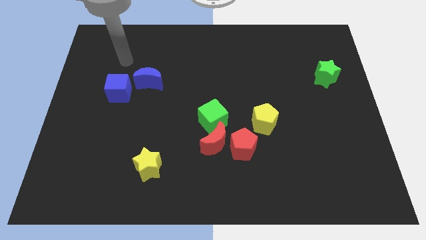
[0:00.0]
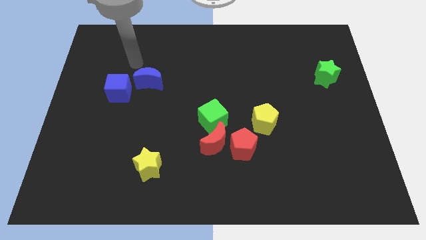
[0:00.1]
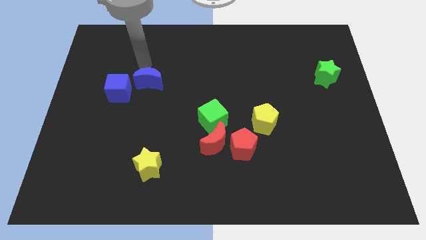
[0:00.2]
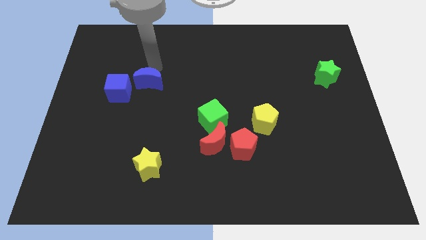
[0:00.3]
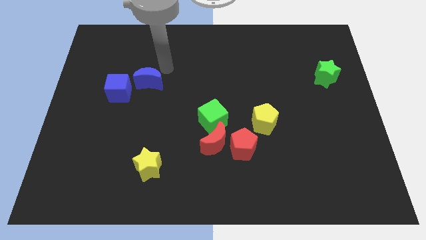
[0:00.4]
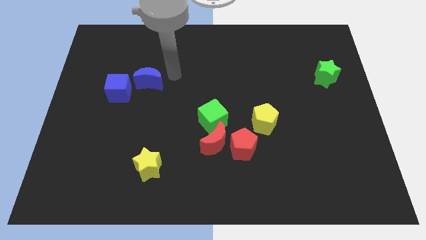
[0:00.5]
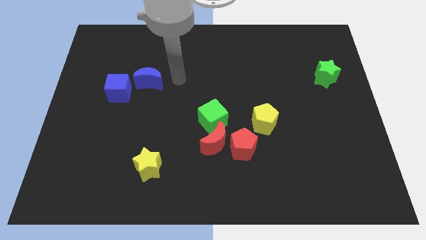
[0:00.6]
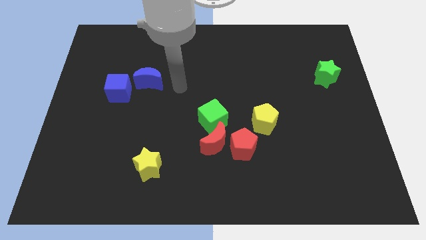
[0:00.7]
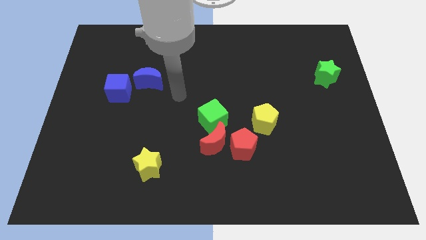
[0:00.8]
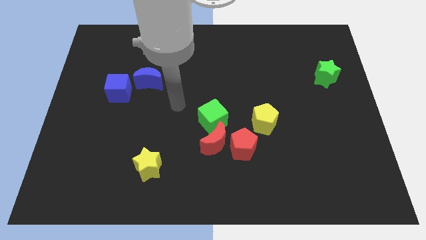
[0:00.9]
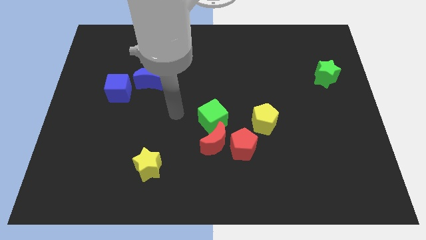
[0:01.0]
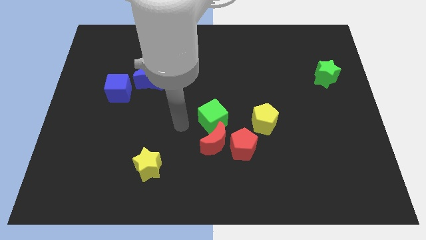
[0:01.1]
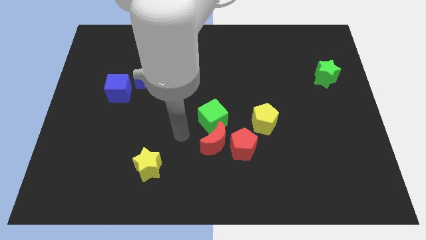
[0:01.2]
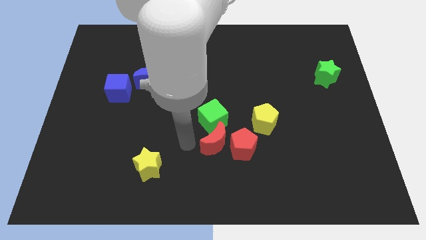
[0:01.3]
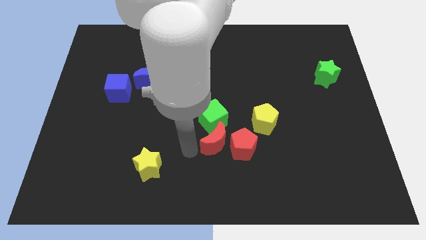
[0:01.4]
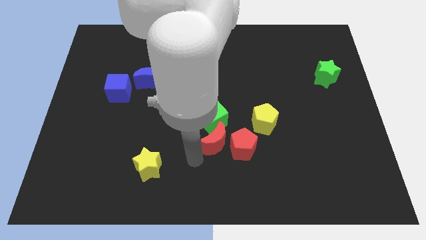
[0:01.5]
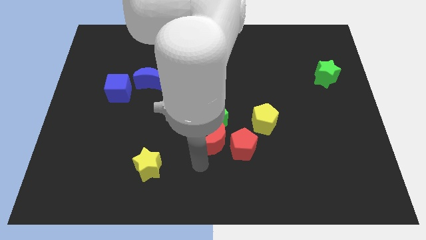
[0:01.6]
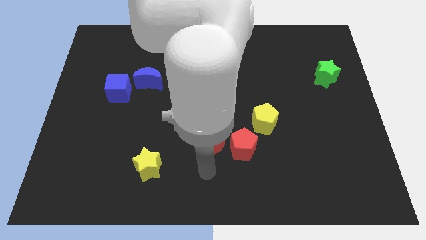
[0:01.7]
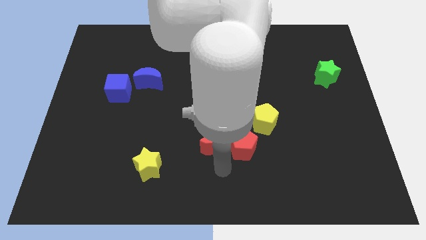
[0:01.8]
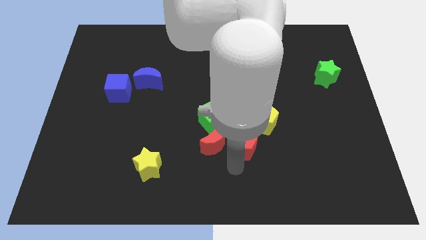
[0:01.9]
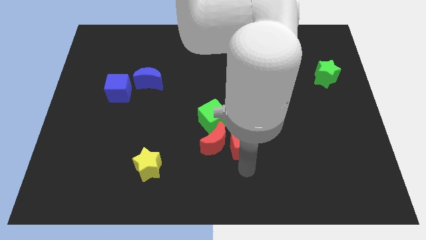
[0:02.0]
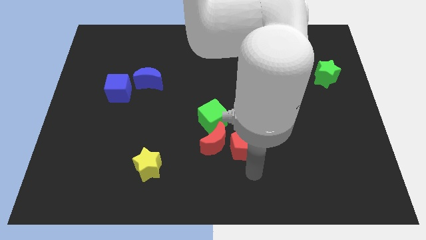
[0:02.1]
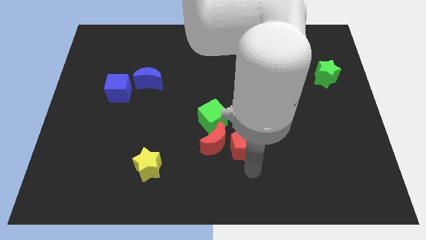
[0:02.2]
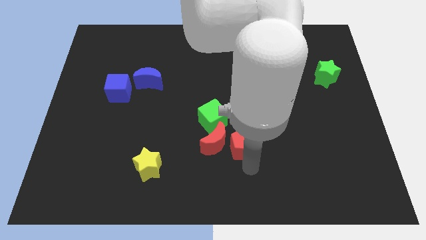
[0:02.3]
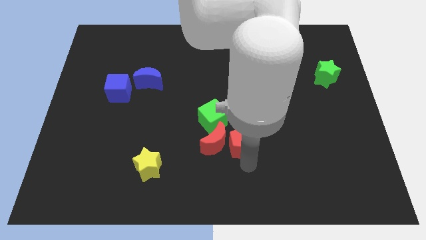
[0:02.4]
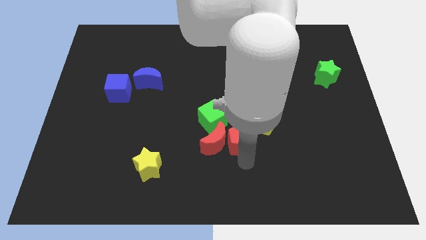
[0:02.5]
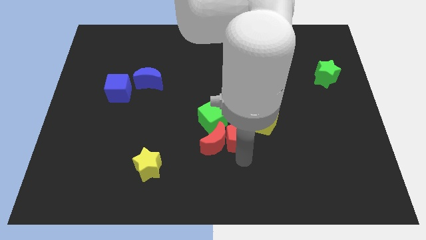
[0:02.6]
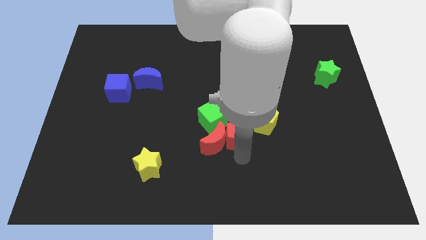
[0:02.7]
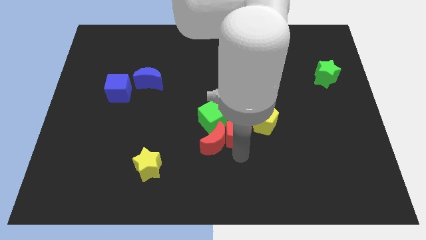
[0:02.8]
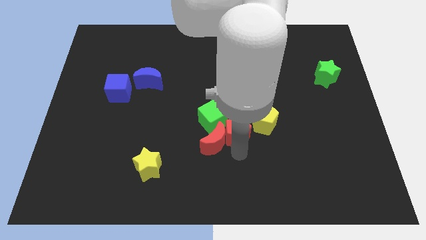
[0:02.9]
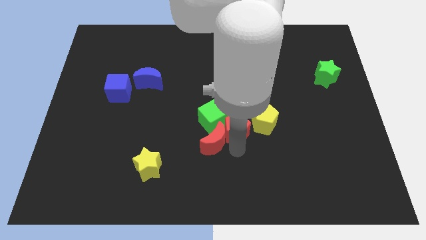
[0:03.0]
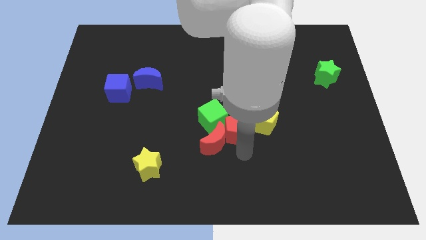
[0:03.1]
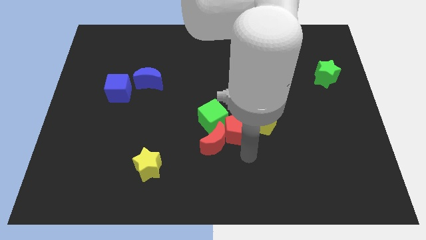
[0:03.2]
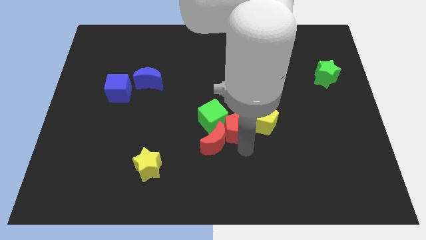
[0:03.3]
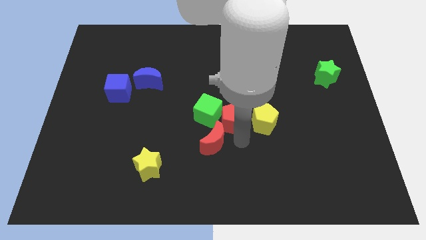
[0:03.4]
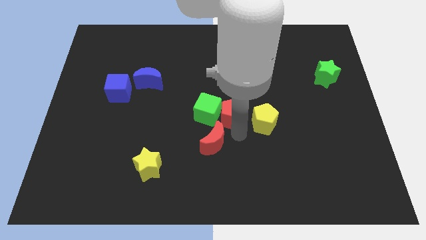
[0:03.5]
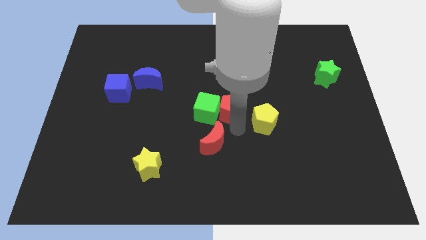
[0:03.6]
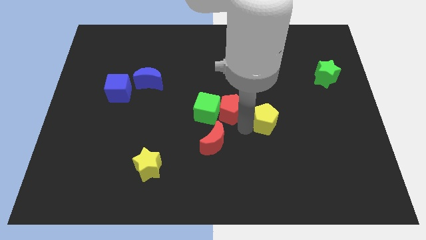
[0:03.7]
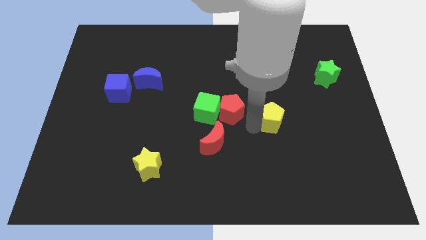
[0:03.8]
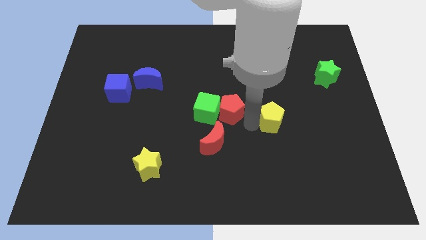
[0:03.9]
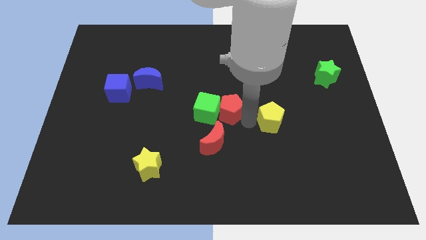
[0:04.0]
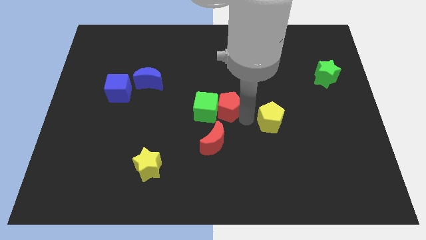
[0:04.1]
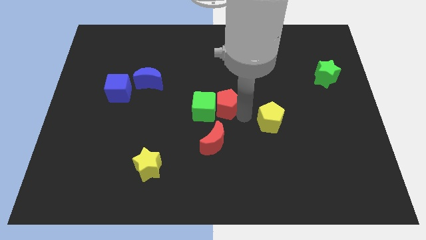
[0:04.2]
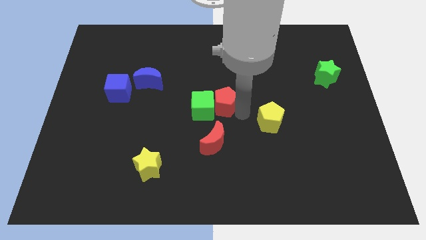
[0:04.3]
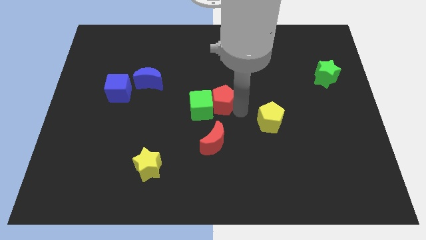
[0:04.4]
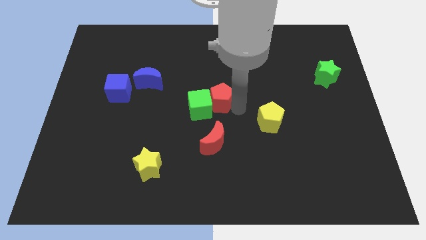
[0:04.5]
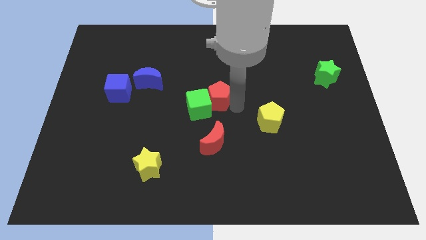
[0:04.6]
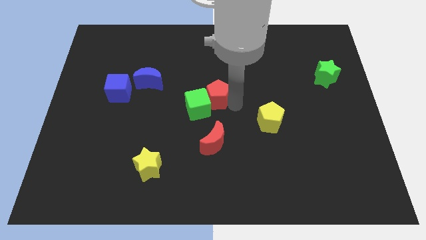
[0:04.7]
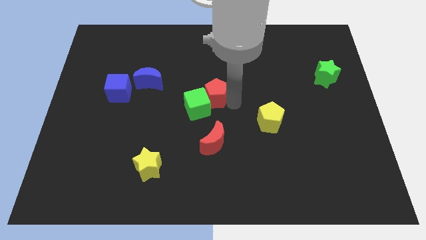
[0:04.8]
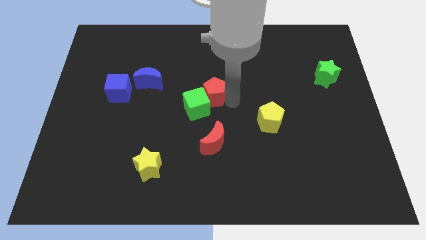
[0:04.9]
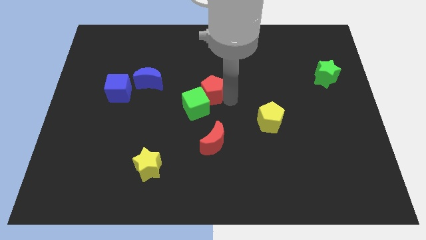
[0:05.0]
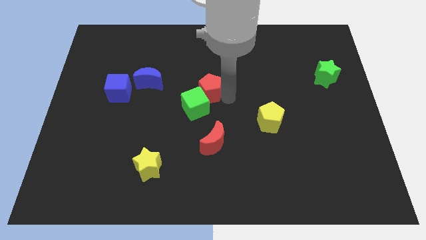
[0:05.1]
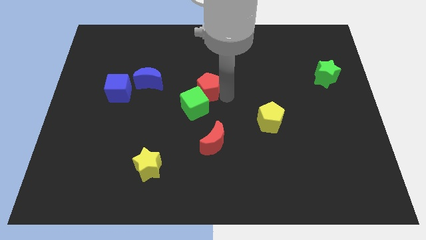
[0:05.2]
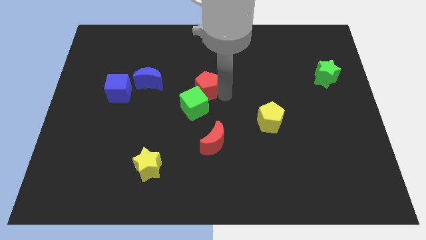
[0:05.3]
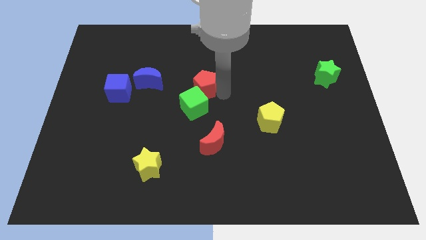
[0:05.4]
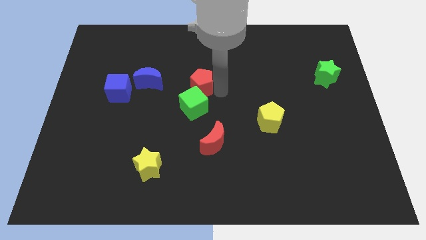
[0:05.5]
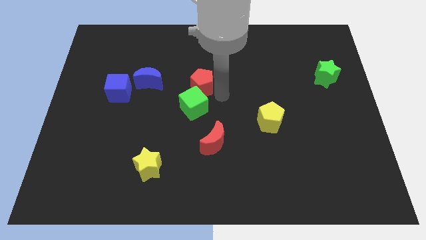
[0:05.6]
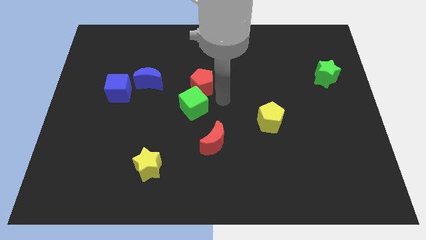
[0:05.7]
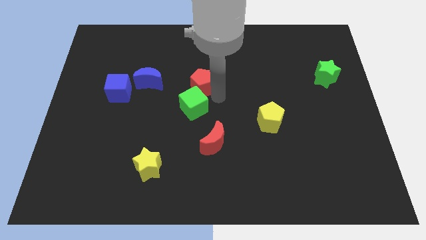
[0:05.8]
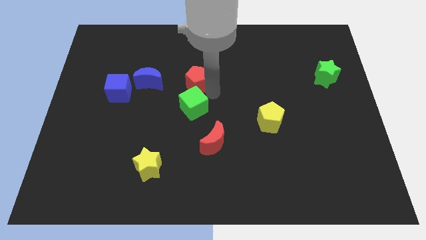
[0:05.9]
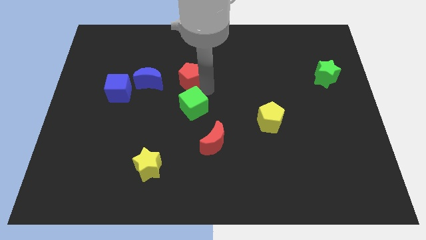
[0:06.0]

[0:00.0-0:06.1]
move the red pentagon up and then left

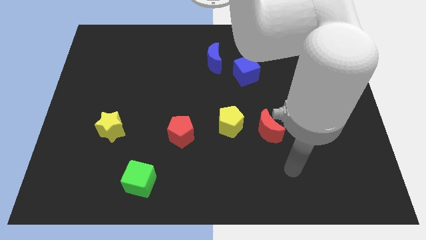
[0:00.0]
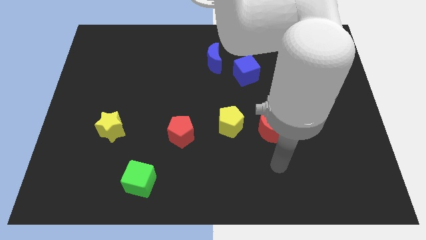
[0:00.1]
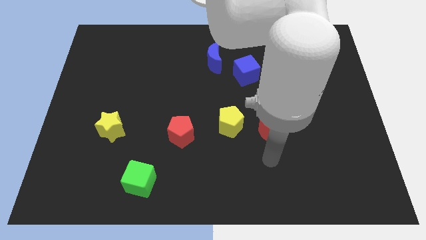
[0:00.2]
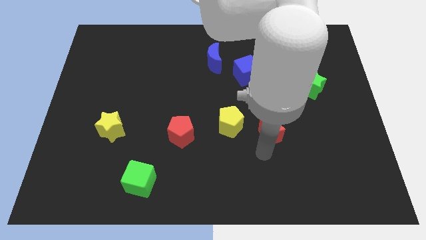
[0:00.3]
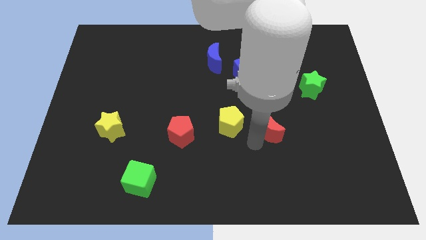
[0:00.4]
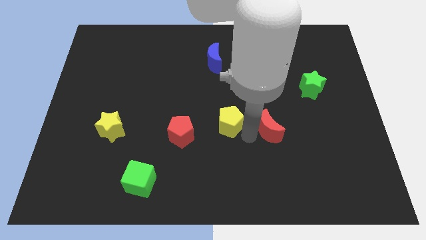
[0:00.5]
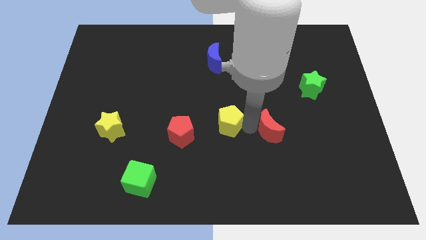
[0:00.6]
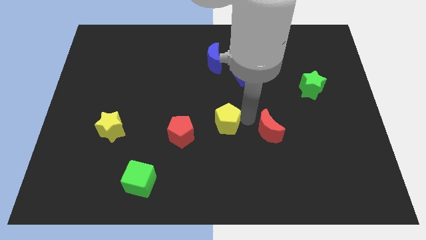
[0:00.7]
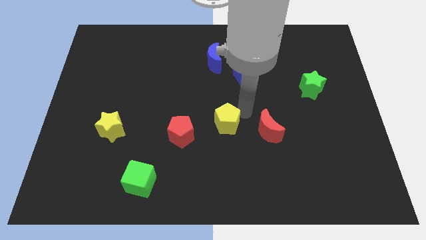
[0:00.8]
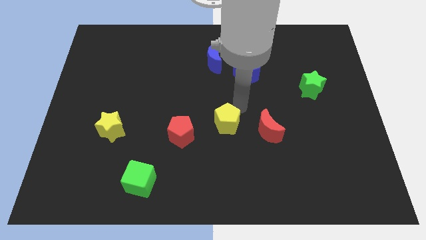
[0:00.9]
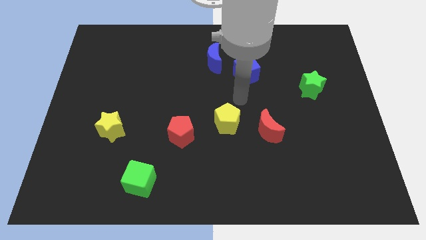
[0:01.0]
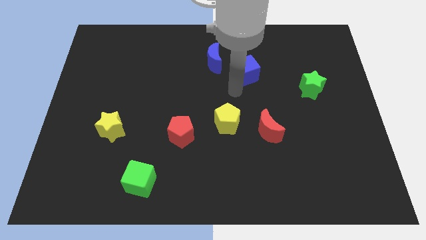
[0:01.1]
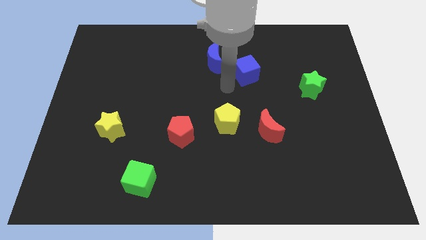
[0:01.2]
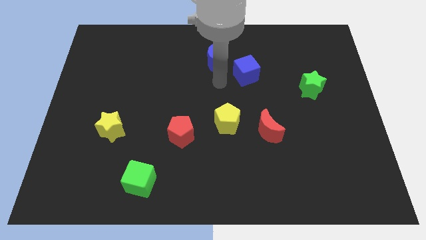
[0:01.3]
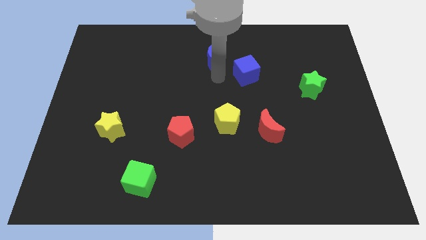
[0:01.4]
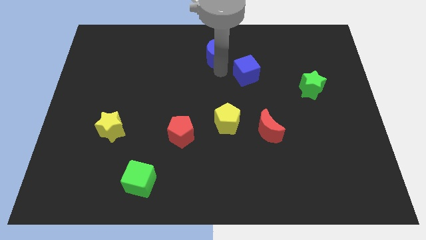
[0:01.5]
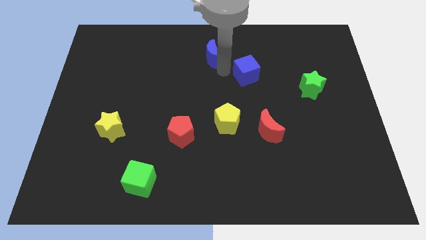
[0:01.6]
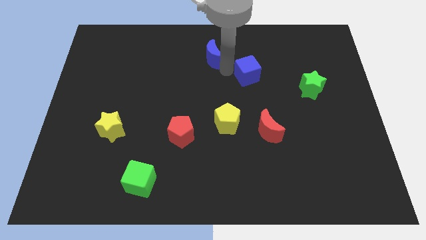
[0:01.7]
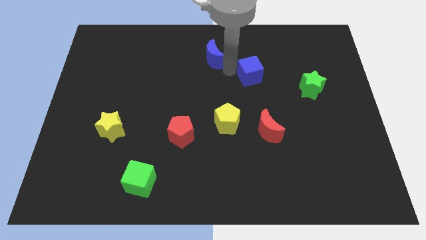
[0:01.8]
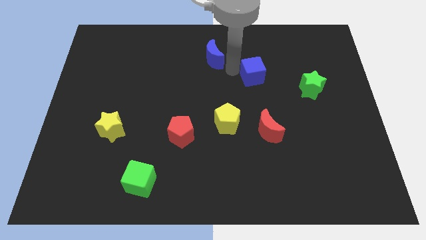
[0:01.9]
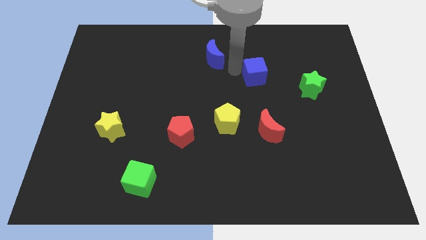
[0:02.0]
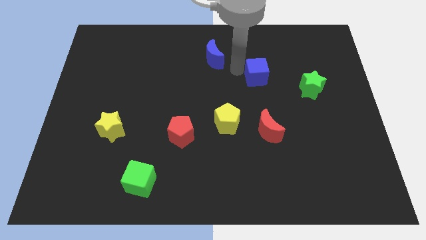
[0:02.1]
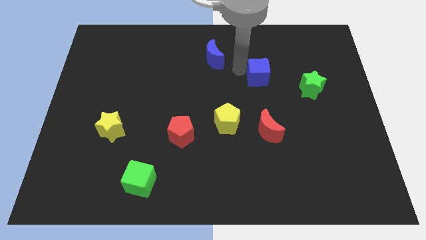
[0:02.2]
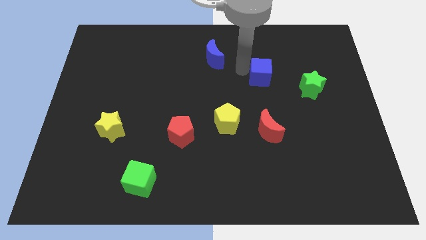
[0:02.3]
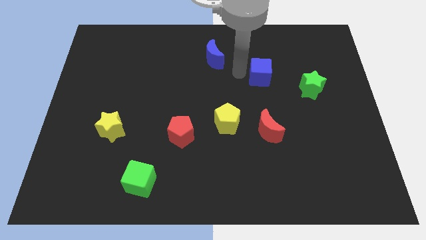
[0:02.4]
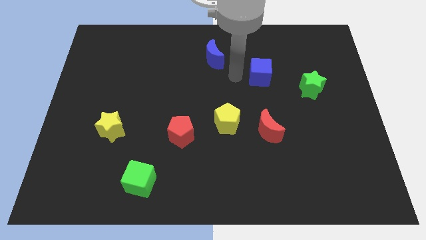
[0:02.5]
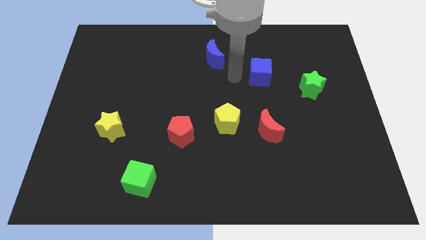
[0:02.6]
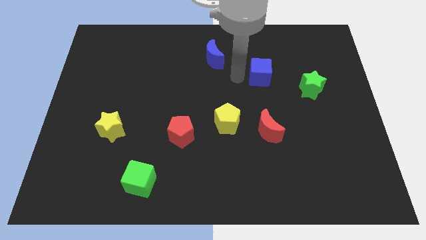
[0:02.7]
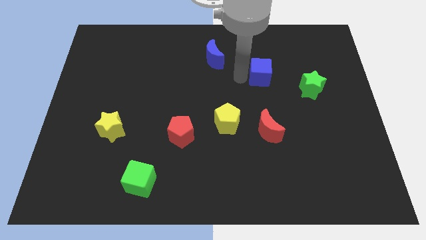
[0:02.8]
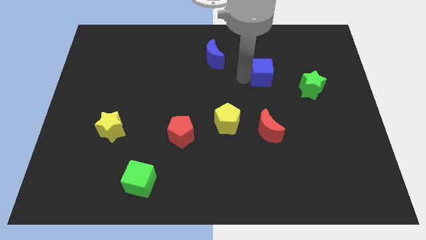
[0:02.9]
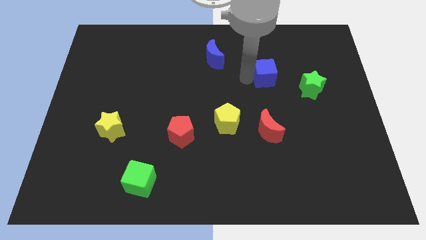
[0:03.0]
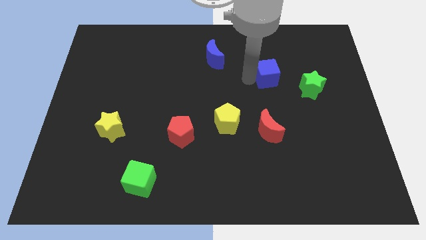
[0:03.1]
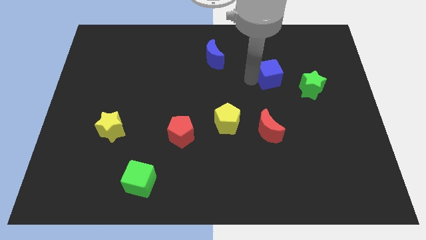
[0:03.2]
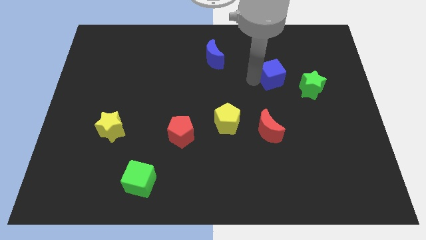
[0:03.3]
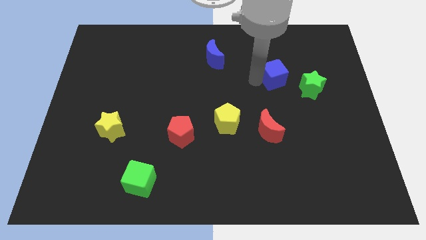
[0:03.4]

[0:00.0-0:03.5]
move the blue cube right slightly
